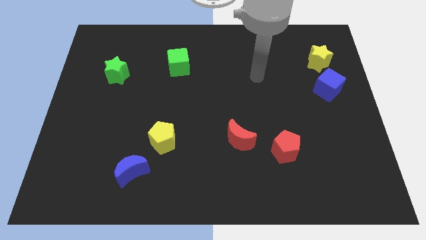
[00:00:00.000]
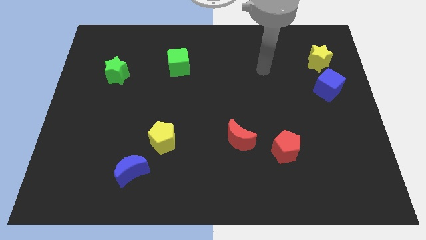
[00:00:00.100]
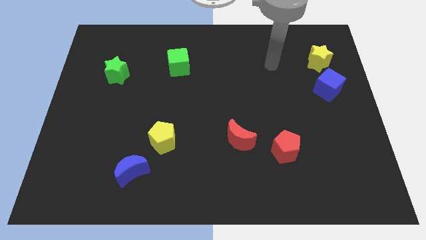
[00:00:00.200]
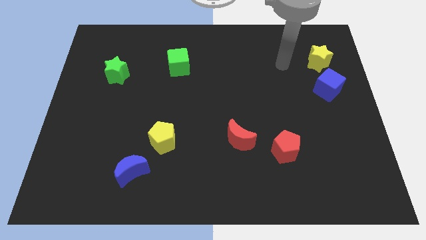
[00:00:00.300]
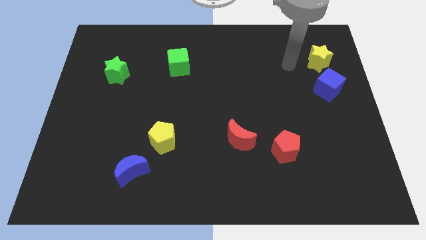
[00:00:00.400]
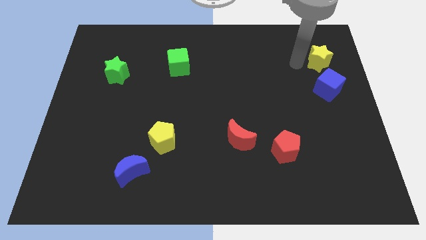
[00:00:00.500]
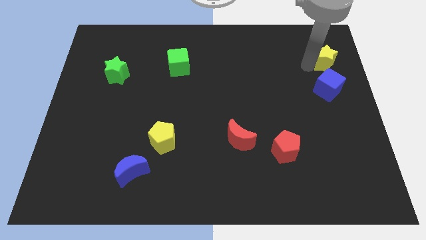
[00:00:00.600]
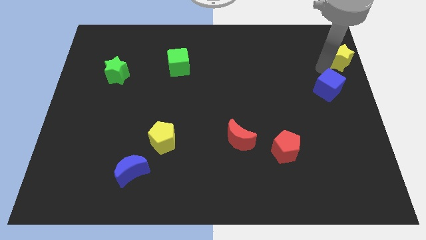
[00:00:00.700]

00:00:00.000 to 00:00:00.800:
pull the blue cube apart from the yellow star

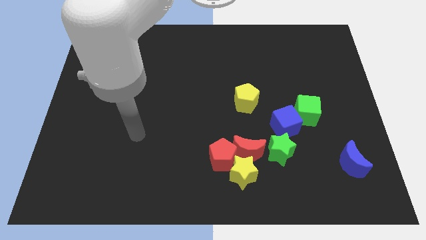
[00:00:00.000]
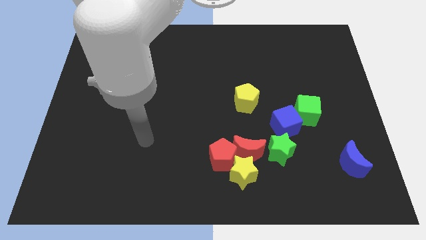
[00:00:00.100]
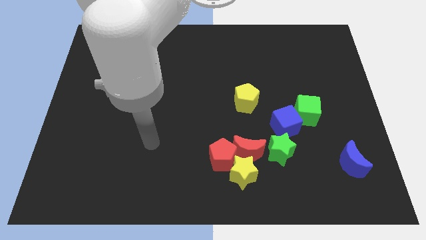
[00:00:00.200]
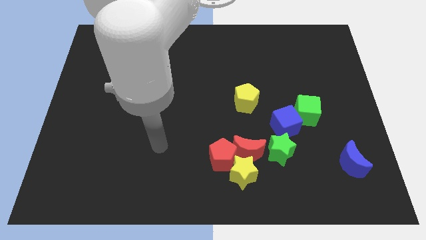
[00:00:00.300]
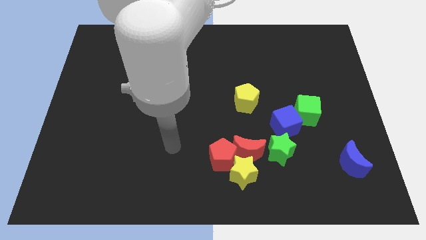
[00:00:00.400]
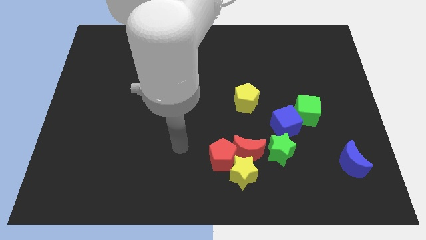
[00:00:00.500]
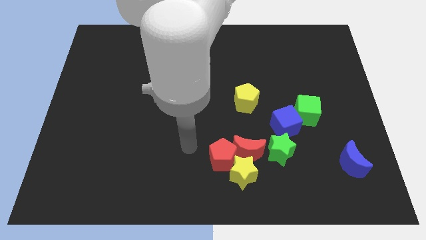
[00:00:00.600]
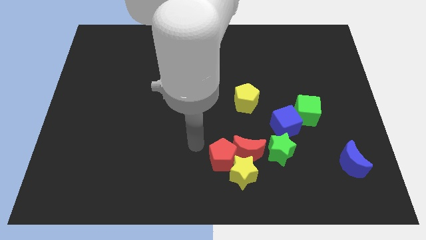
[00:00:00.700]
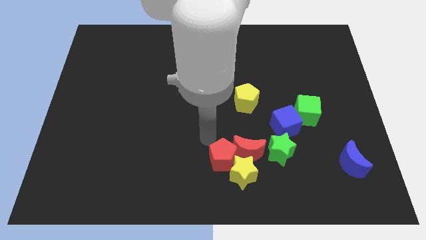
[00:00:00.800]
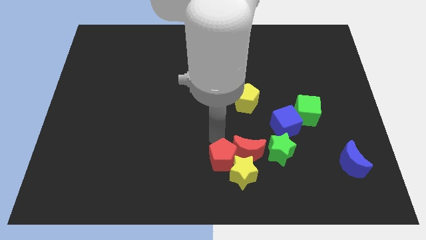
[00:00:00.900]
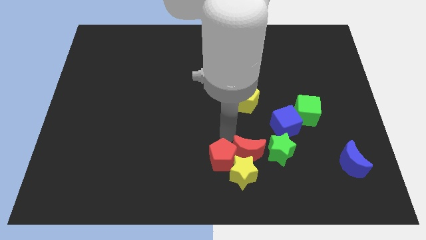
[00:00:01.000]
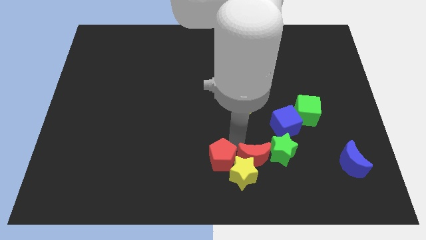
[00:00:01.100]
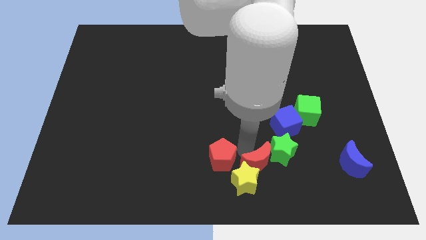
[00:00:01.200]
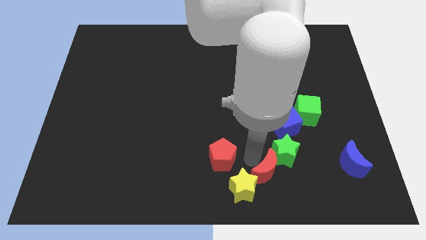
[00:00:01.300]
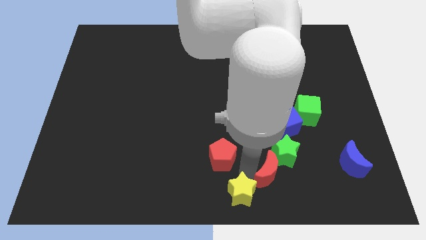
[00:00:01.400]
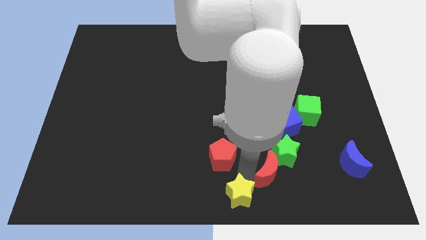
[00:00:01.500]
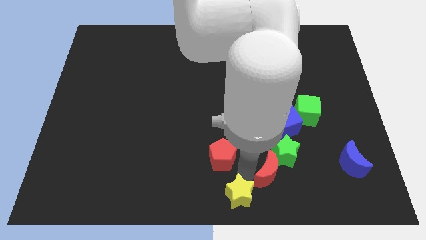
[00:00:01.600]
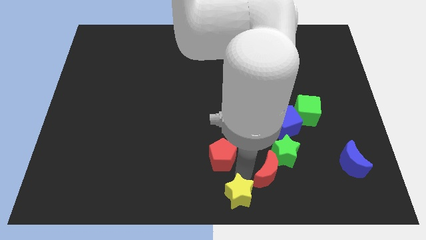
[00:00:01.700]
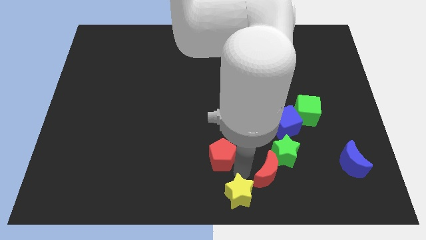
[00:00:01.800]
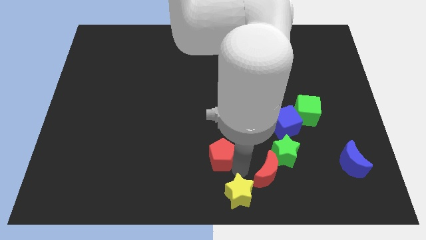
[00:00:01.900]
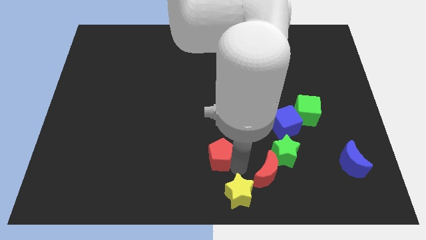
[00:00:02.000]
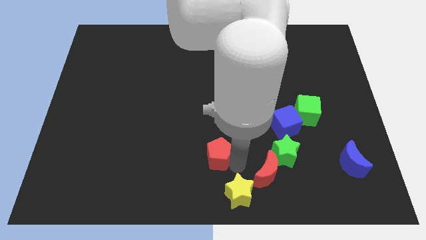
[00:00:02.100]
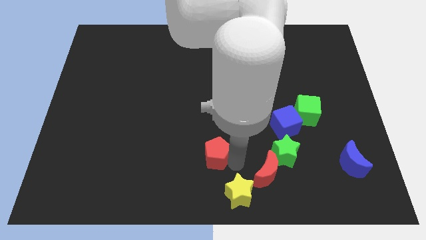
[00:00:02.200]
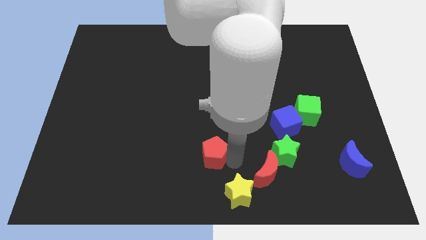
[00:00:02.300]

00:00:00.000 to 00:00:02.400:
pull the red pentagon apart from the yellow star and red moon

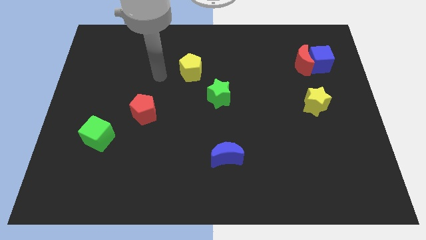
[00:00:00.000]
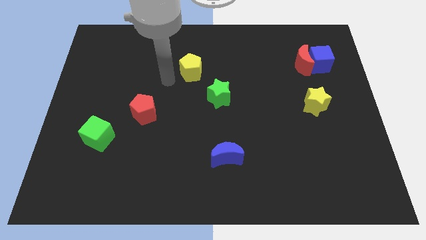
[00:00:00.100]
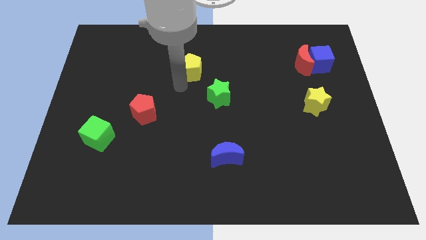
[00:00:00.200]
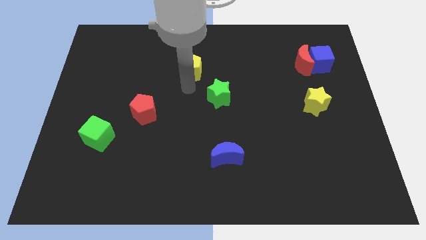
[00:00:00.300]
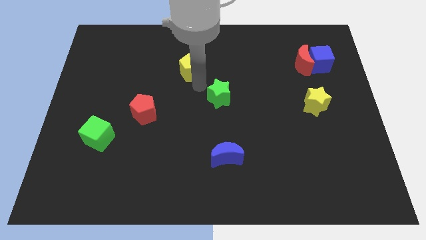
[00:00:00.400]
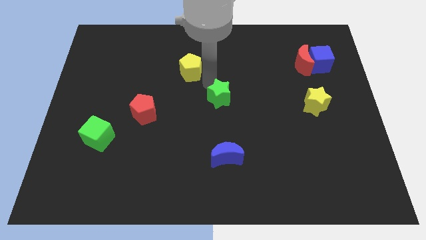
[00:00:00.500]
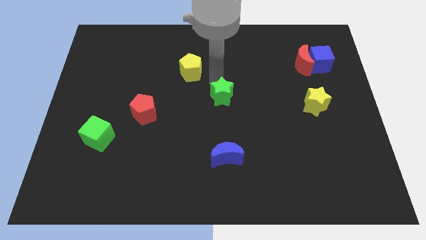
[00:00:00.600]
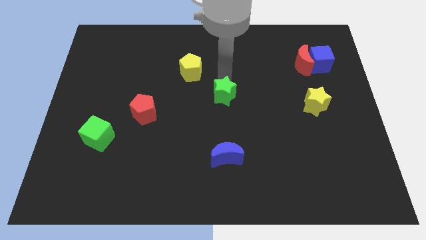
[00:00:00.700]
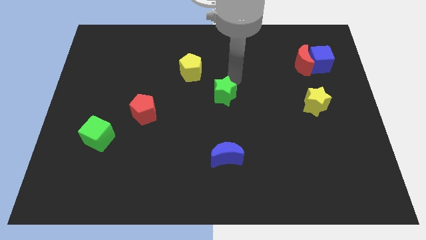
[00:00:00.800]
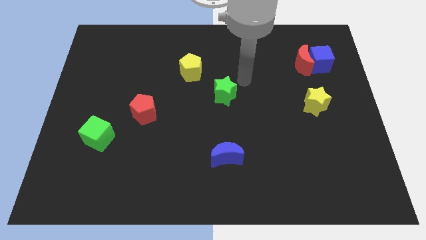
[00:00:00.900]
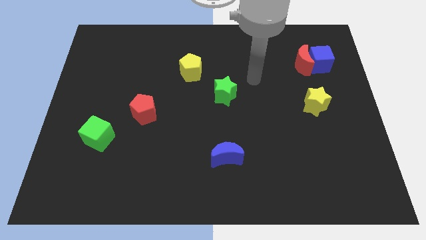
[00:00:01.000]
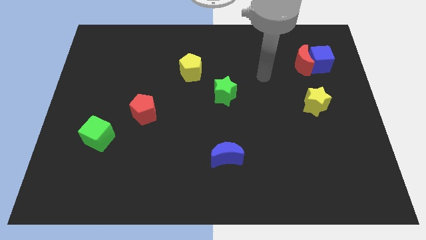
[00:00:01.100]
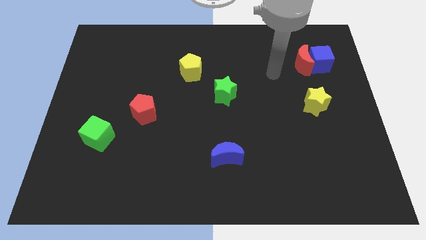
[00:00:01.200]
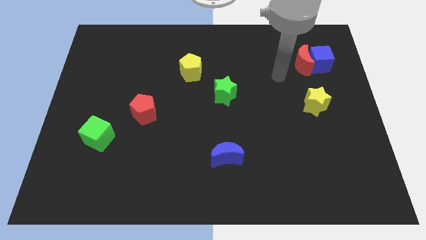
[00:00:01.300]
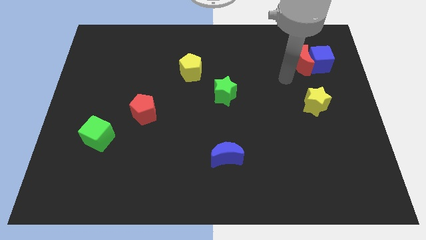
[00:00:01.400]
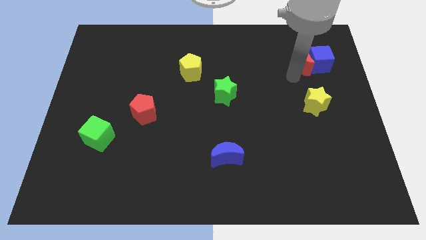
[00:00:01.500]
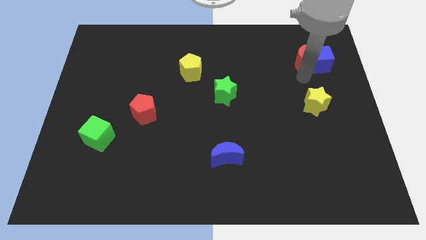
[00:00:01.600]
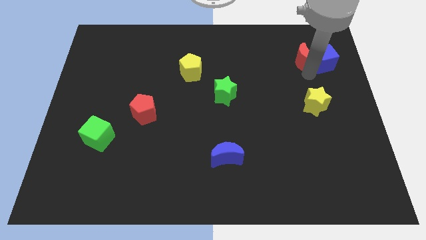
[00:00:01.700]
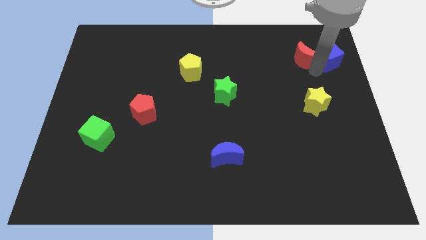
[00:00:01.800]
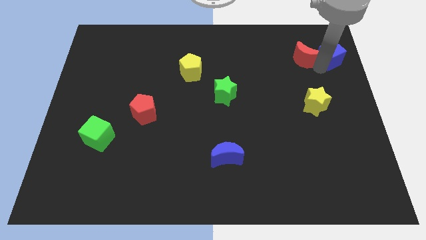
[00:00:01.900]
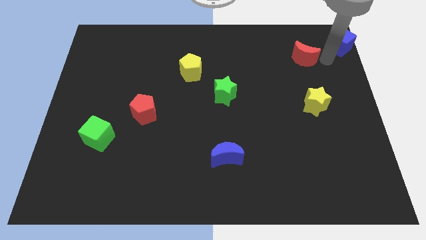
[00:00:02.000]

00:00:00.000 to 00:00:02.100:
move the red moon away from the blue cube

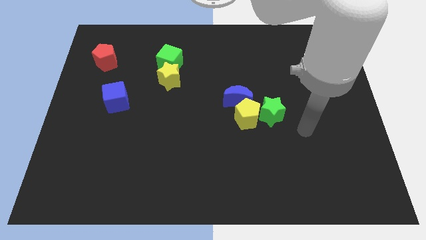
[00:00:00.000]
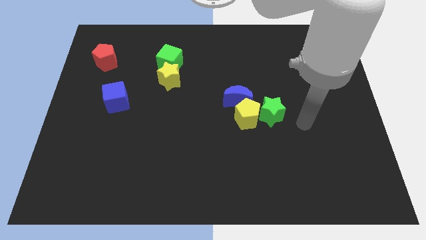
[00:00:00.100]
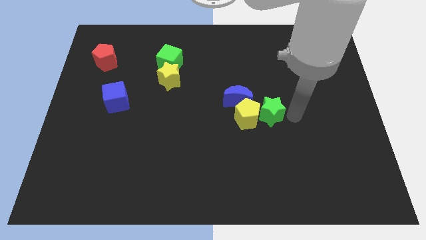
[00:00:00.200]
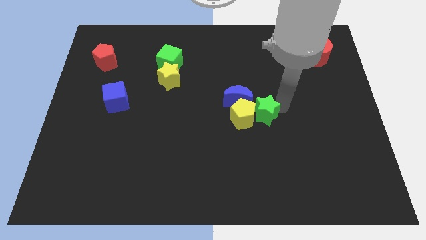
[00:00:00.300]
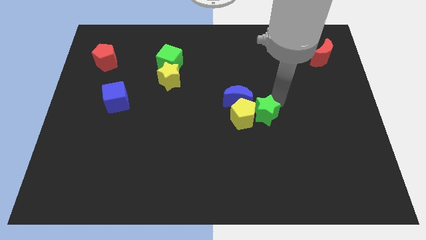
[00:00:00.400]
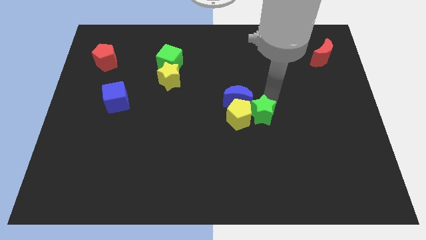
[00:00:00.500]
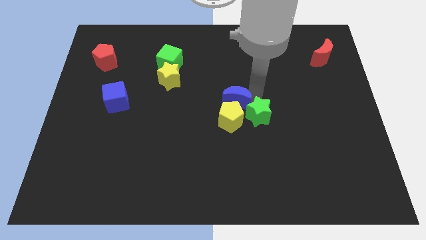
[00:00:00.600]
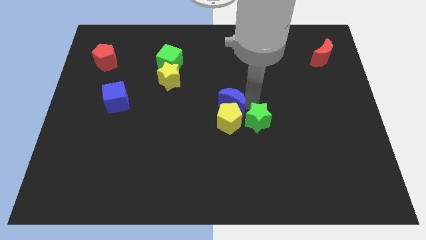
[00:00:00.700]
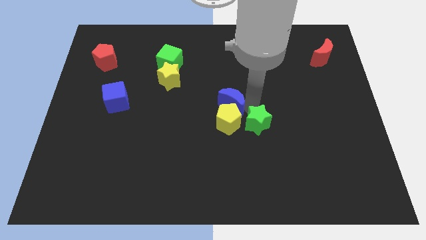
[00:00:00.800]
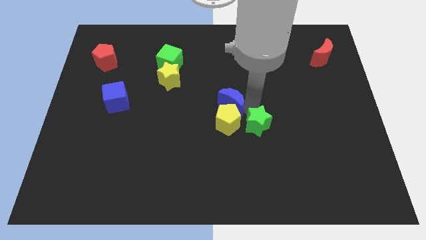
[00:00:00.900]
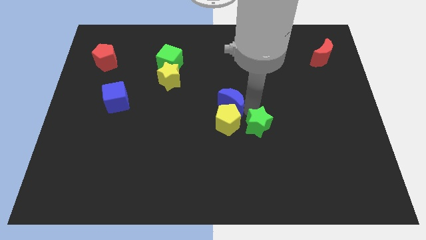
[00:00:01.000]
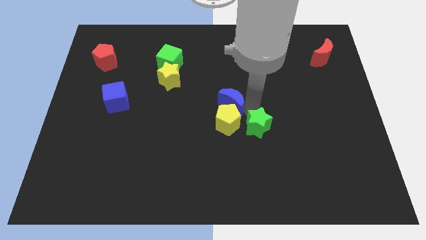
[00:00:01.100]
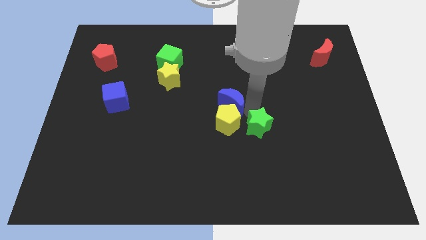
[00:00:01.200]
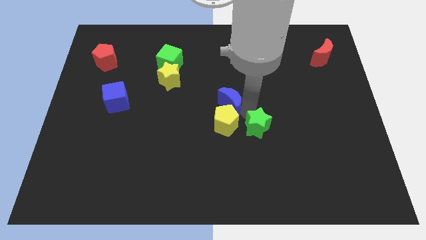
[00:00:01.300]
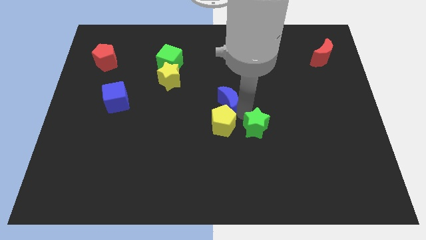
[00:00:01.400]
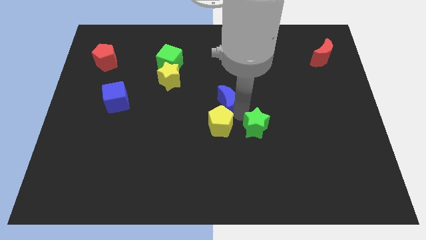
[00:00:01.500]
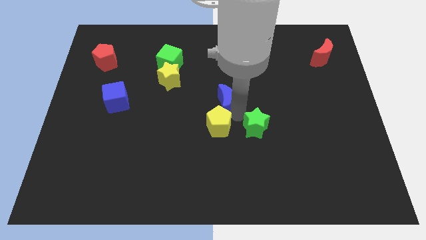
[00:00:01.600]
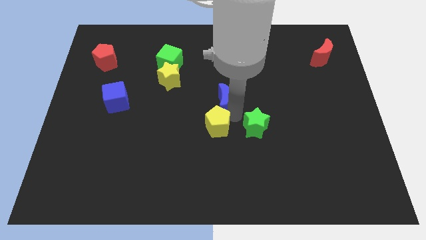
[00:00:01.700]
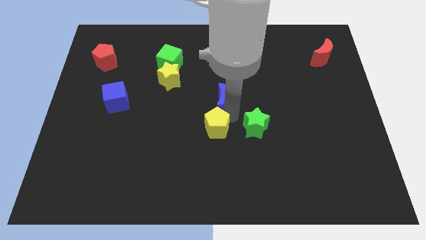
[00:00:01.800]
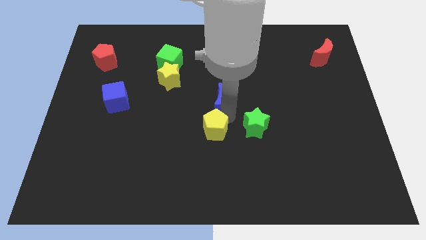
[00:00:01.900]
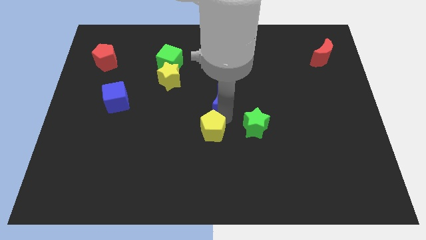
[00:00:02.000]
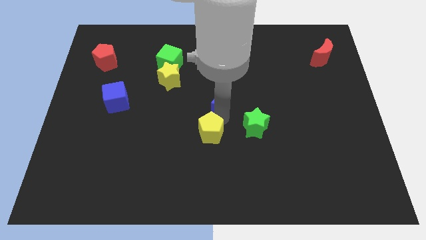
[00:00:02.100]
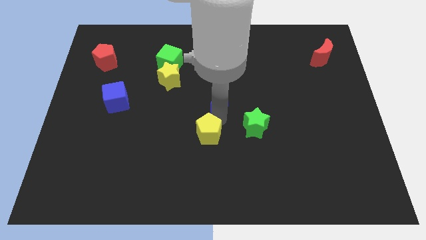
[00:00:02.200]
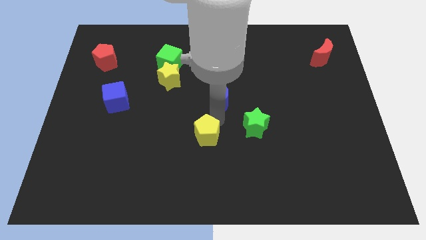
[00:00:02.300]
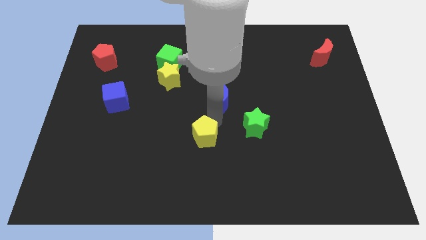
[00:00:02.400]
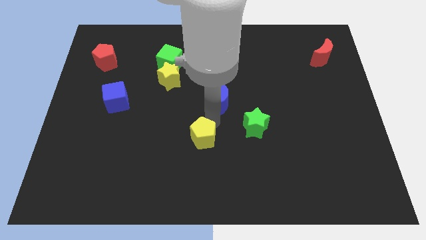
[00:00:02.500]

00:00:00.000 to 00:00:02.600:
pull the yellow pentagon apart from the blue moon and green star

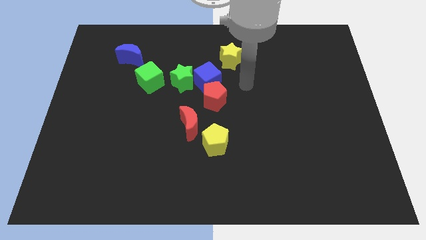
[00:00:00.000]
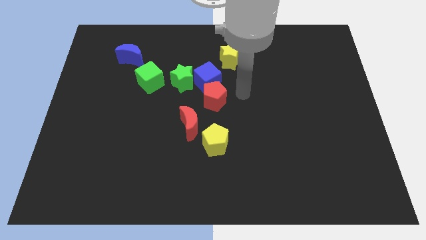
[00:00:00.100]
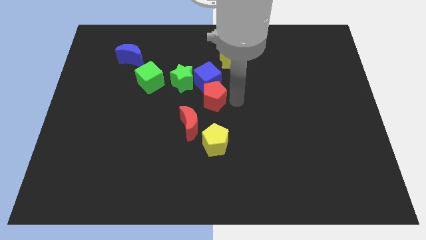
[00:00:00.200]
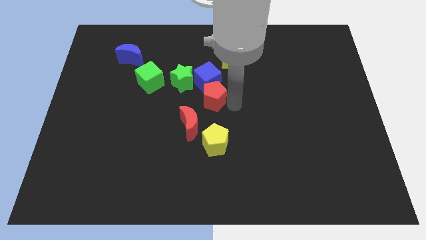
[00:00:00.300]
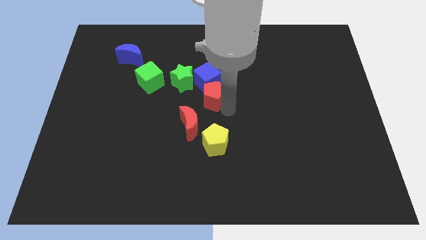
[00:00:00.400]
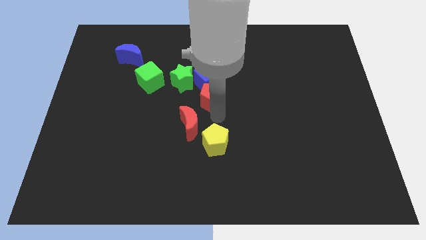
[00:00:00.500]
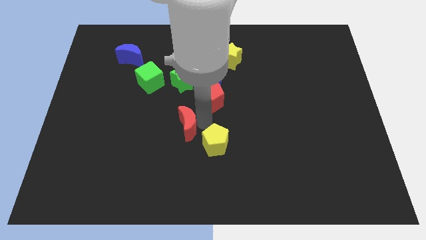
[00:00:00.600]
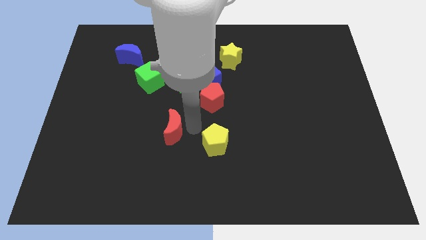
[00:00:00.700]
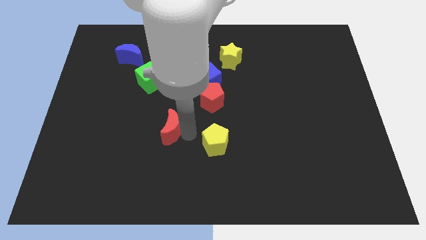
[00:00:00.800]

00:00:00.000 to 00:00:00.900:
separate the yellow pentagon from the red moon

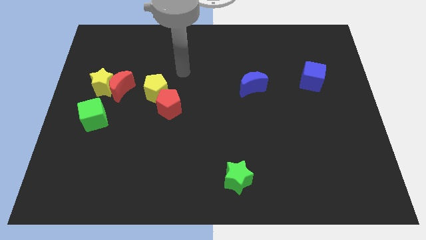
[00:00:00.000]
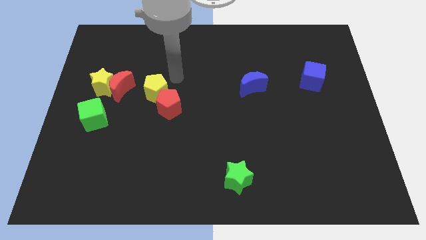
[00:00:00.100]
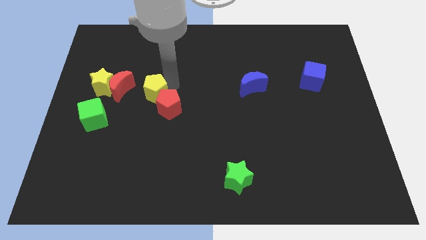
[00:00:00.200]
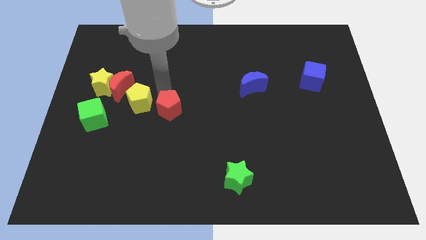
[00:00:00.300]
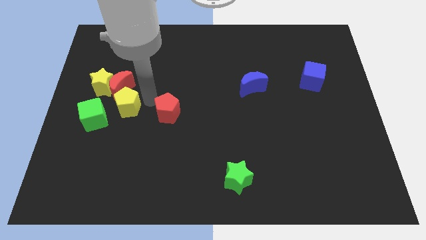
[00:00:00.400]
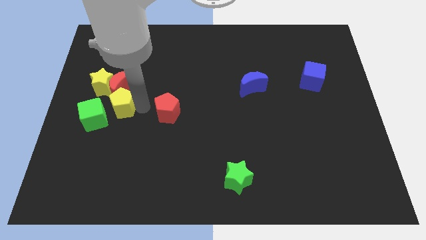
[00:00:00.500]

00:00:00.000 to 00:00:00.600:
pull the red pentagon apart from the yellow pentagon
